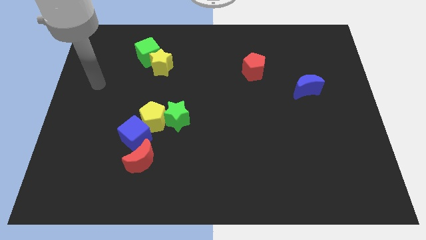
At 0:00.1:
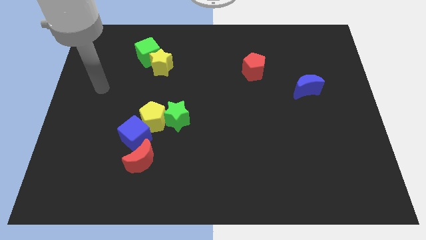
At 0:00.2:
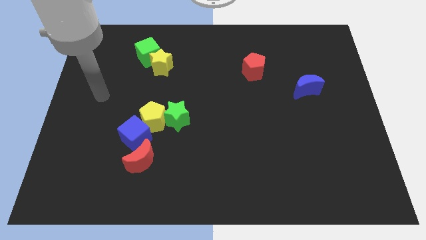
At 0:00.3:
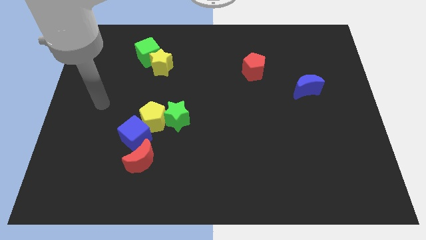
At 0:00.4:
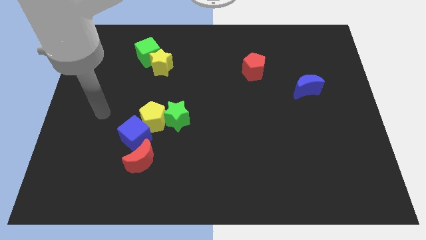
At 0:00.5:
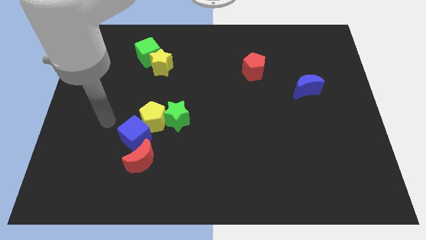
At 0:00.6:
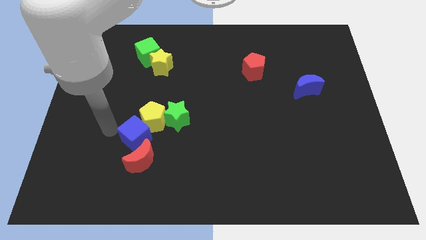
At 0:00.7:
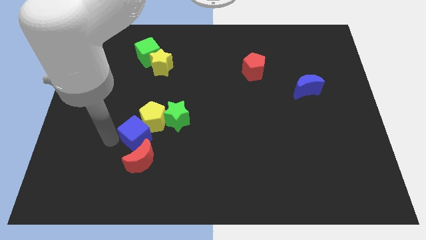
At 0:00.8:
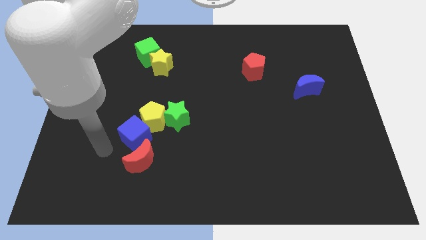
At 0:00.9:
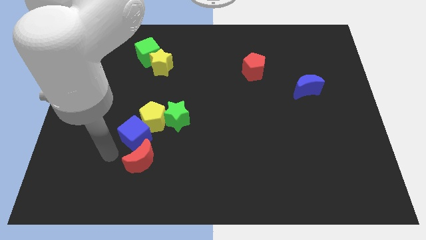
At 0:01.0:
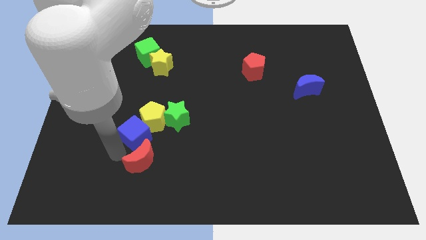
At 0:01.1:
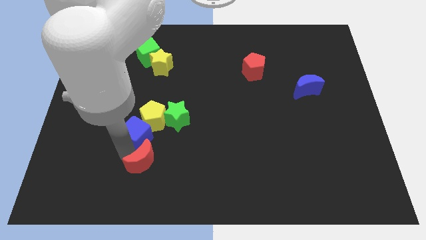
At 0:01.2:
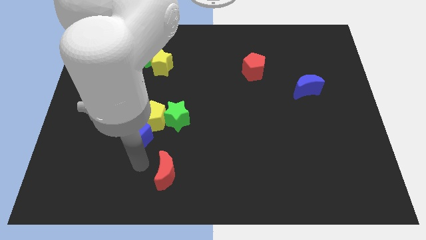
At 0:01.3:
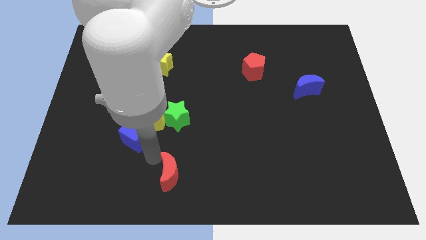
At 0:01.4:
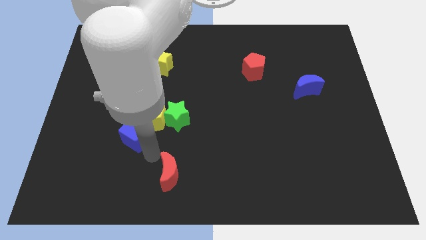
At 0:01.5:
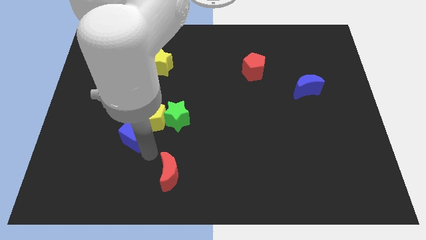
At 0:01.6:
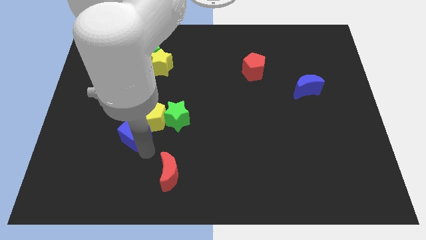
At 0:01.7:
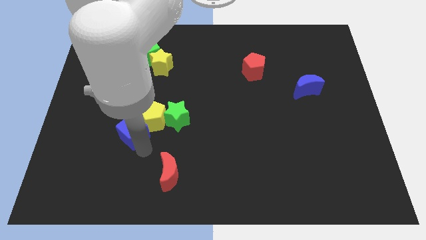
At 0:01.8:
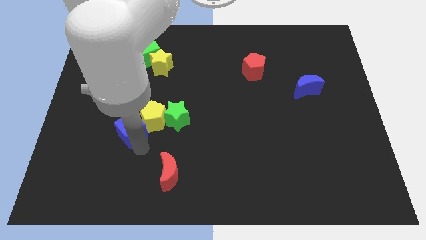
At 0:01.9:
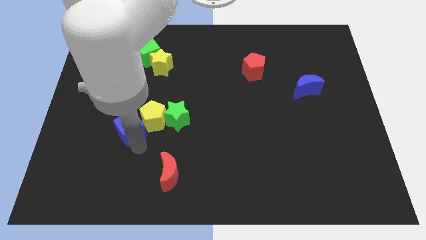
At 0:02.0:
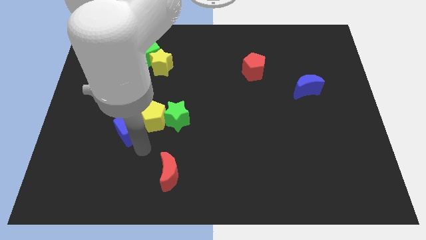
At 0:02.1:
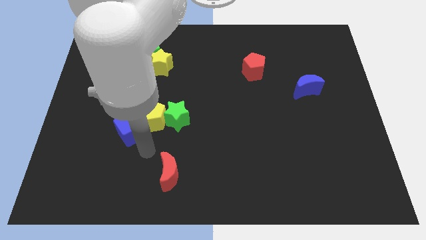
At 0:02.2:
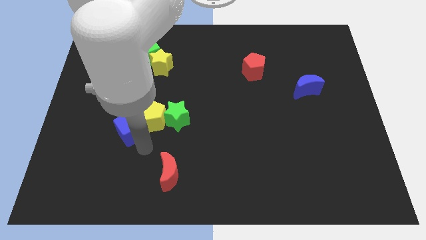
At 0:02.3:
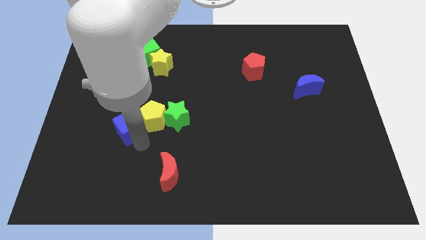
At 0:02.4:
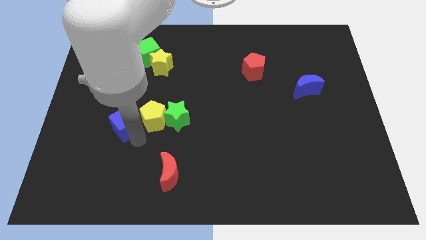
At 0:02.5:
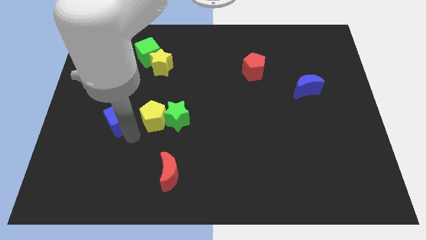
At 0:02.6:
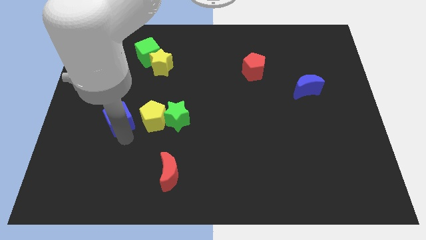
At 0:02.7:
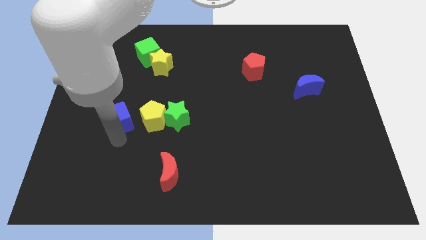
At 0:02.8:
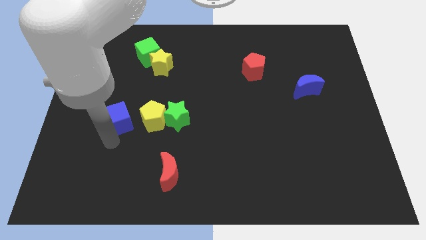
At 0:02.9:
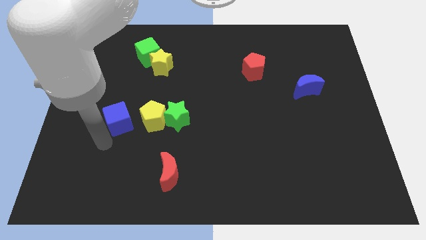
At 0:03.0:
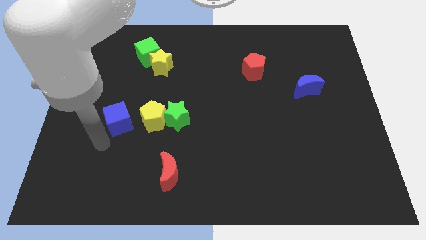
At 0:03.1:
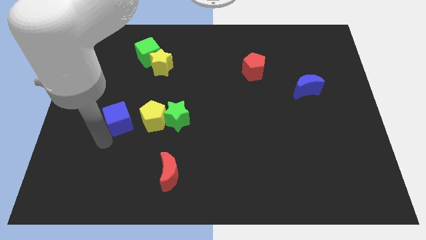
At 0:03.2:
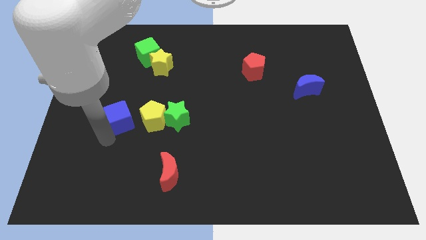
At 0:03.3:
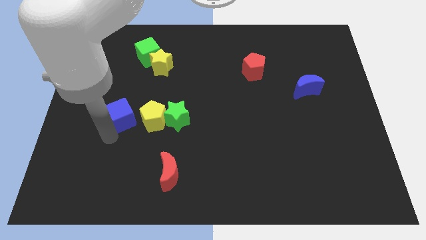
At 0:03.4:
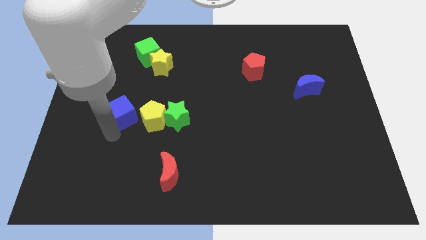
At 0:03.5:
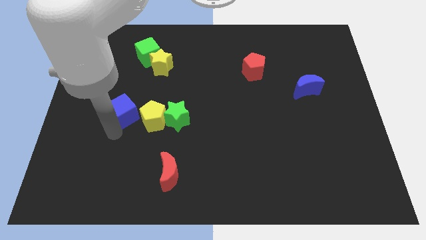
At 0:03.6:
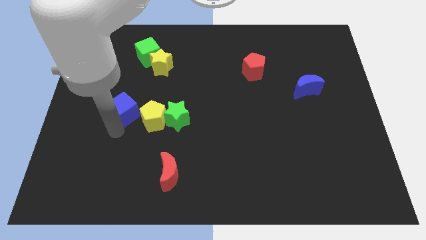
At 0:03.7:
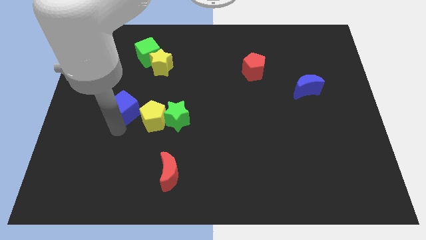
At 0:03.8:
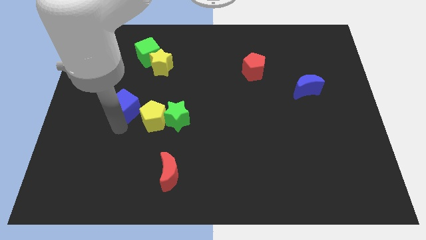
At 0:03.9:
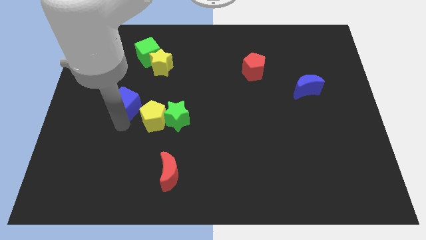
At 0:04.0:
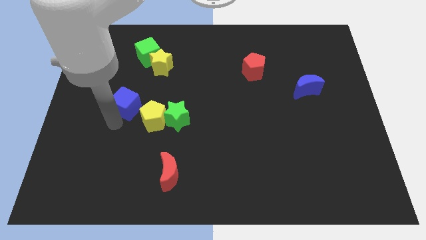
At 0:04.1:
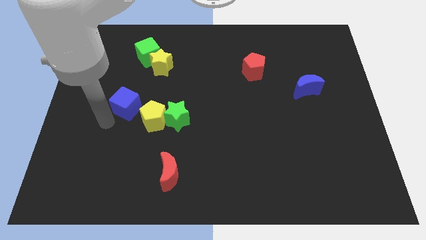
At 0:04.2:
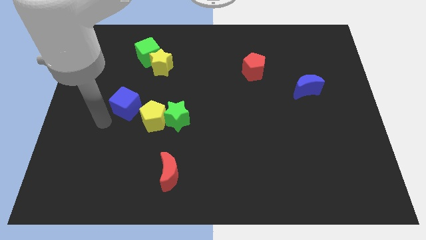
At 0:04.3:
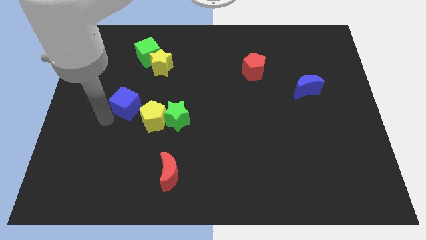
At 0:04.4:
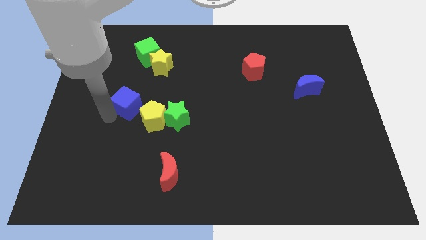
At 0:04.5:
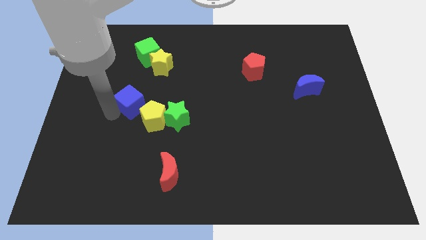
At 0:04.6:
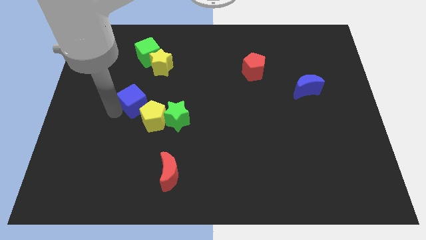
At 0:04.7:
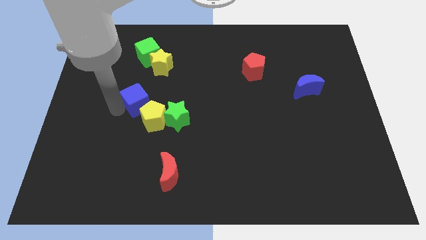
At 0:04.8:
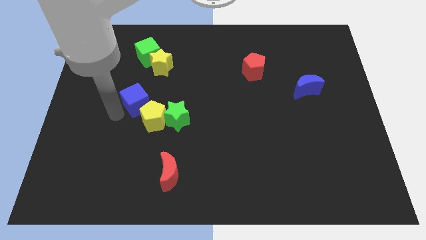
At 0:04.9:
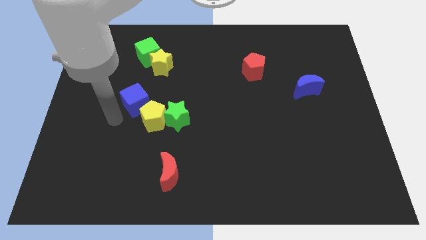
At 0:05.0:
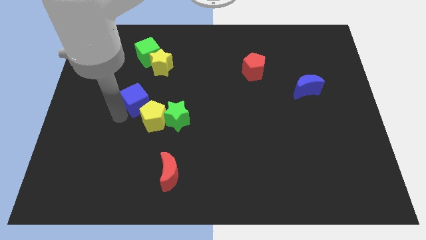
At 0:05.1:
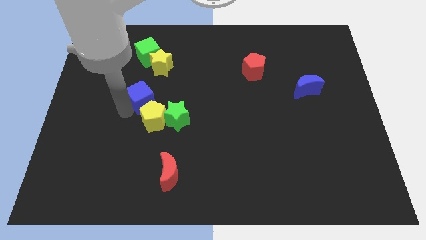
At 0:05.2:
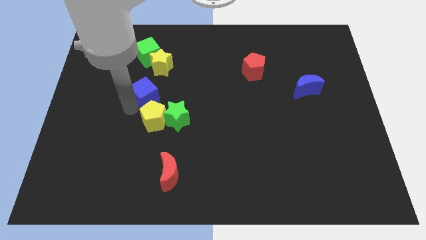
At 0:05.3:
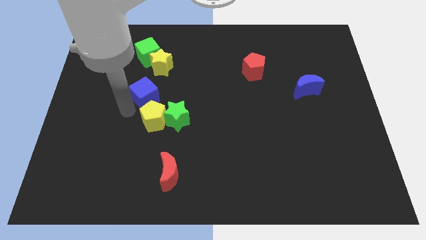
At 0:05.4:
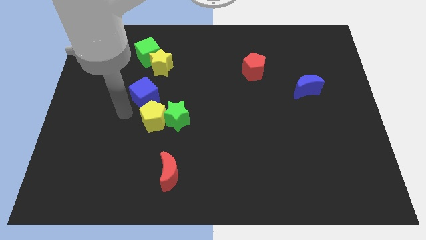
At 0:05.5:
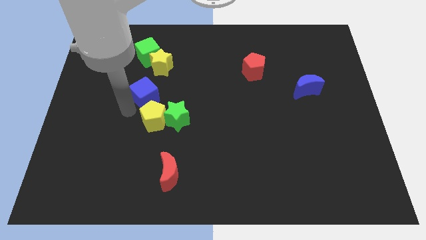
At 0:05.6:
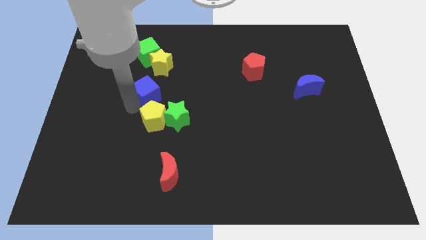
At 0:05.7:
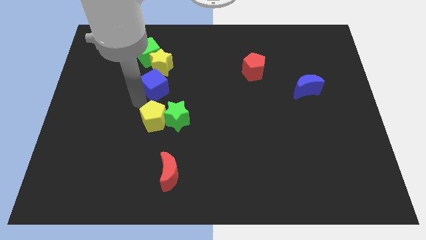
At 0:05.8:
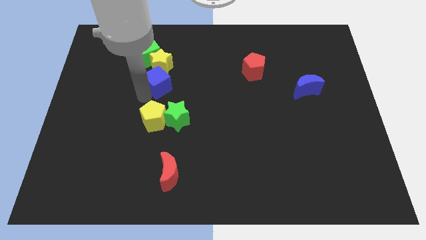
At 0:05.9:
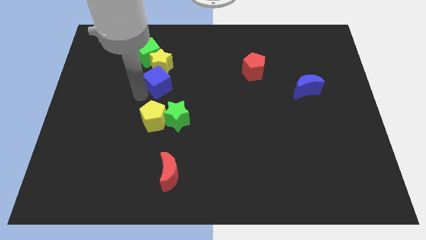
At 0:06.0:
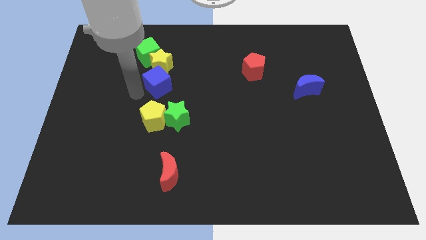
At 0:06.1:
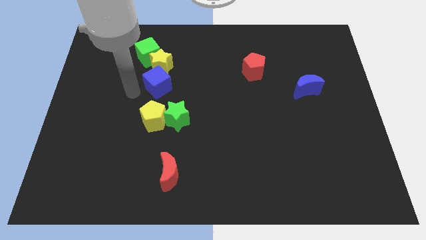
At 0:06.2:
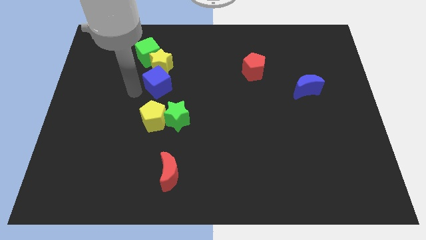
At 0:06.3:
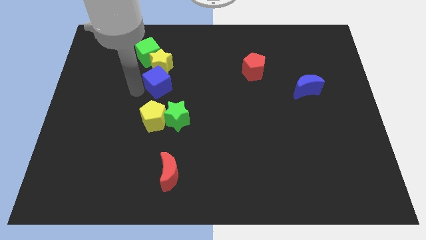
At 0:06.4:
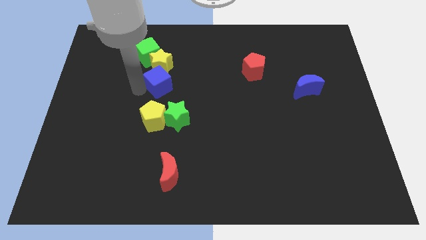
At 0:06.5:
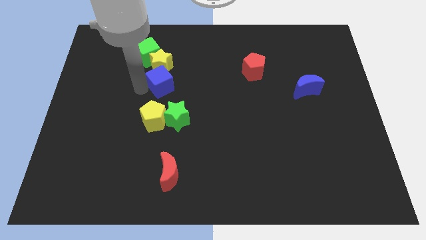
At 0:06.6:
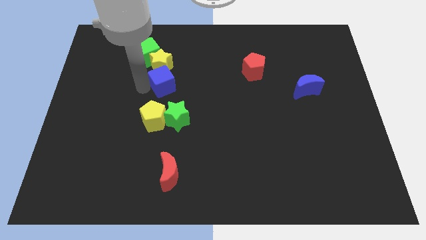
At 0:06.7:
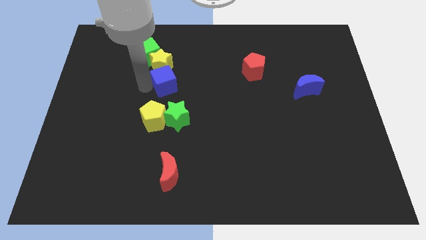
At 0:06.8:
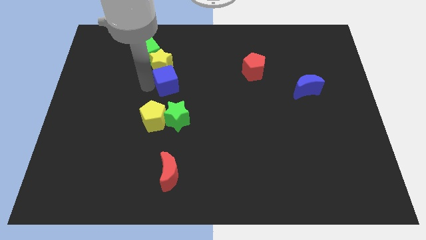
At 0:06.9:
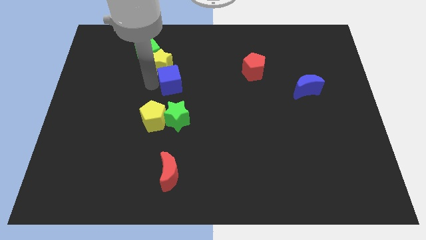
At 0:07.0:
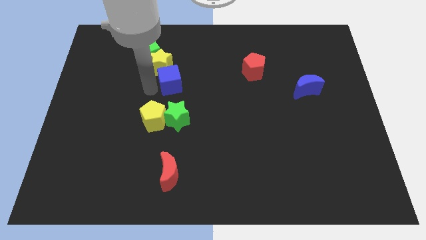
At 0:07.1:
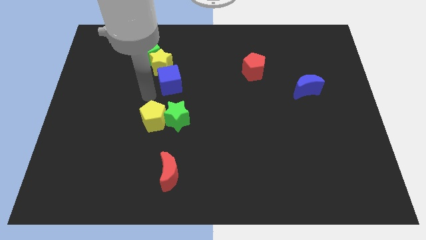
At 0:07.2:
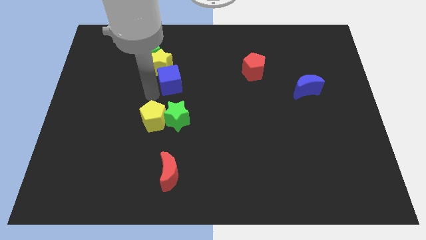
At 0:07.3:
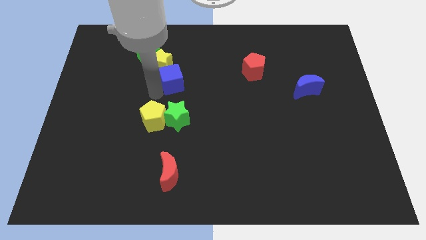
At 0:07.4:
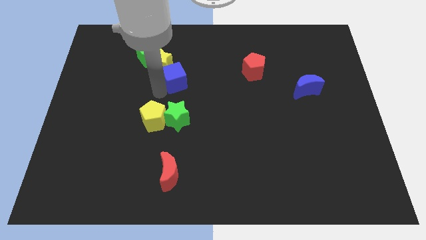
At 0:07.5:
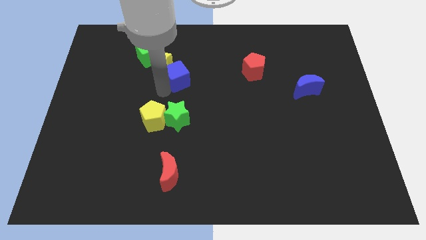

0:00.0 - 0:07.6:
move the blue cube to the right of the yellow star
